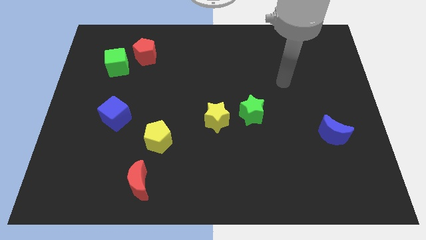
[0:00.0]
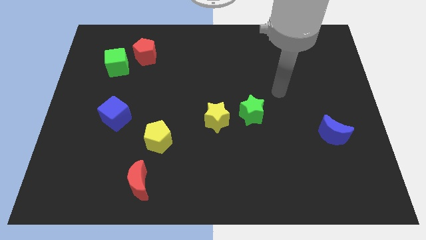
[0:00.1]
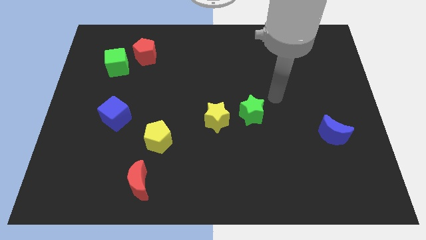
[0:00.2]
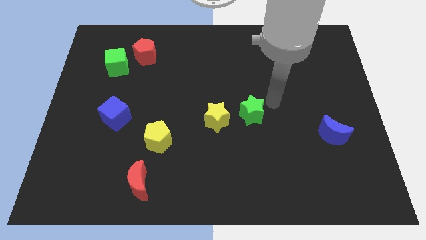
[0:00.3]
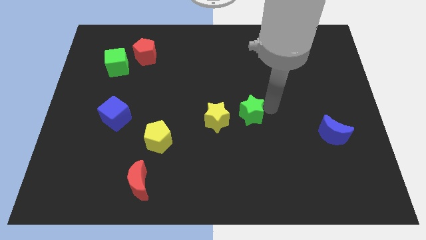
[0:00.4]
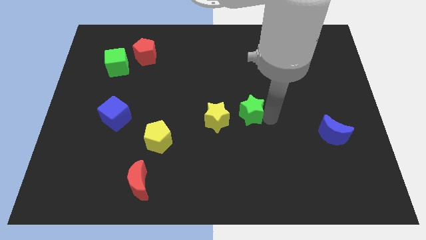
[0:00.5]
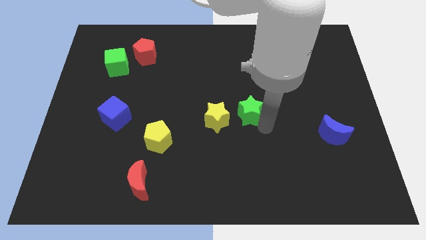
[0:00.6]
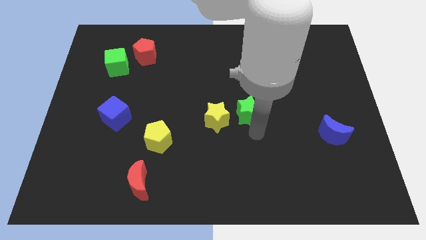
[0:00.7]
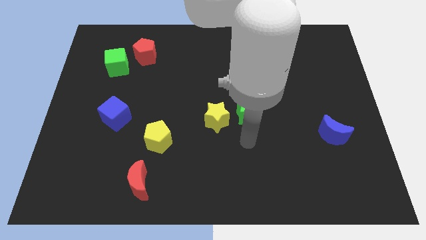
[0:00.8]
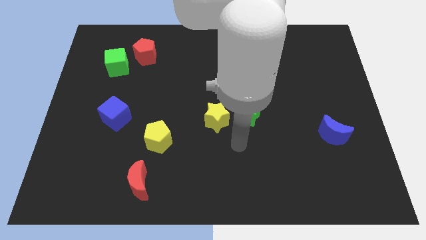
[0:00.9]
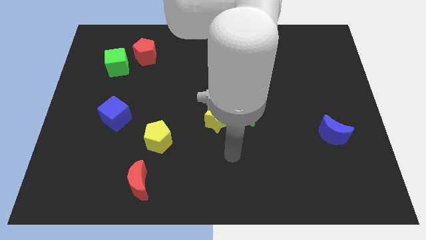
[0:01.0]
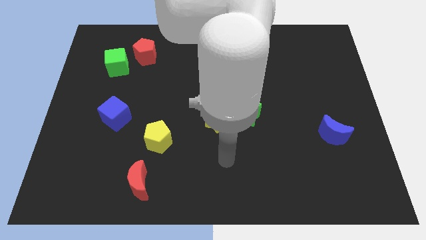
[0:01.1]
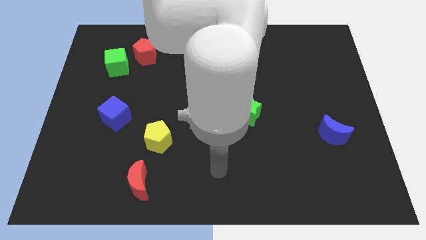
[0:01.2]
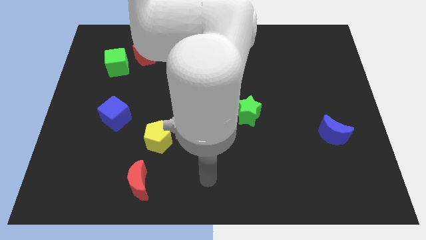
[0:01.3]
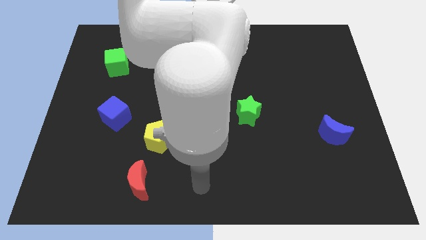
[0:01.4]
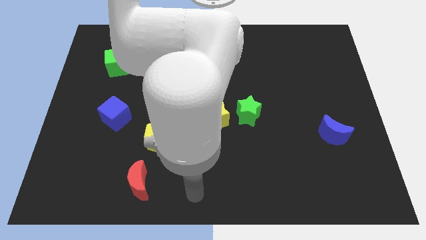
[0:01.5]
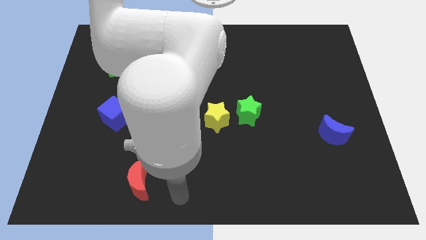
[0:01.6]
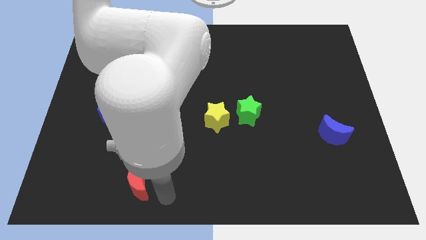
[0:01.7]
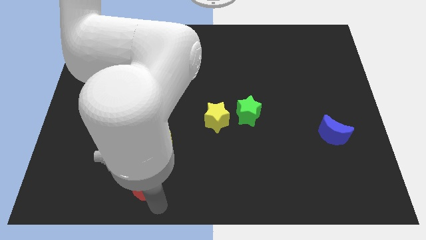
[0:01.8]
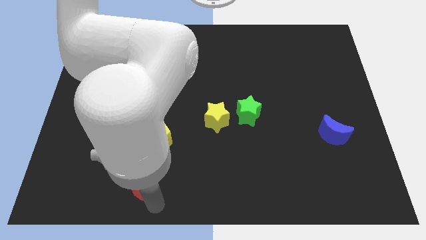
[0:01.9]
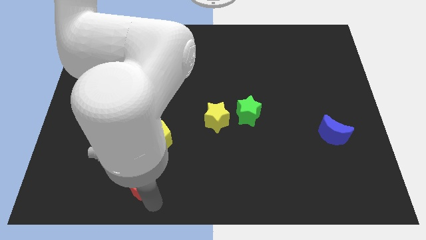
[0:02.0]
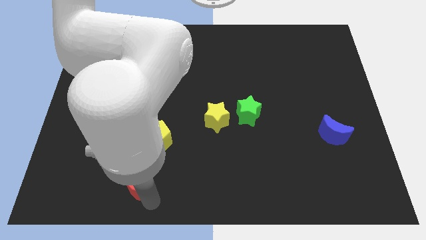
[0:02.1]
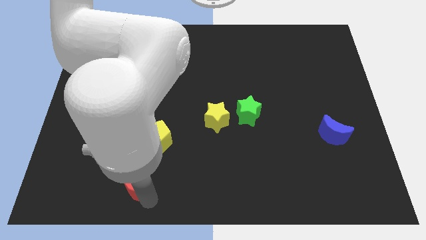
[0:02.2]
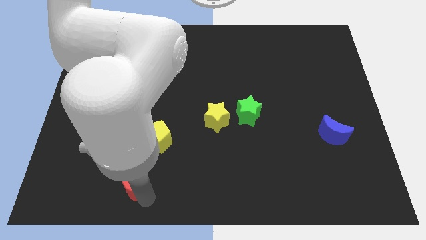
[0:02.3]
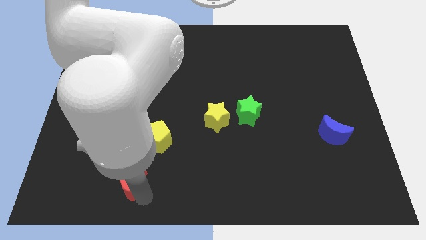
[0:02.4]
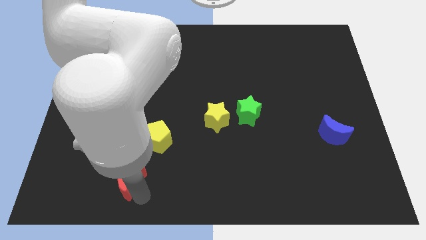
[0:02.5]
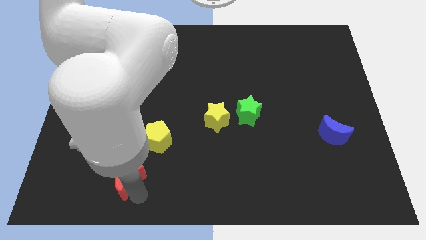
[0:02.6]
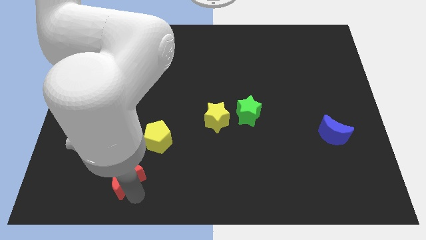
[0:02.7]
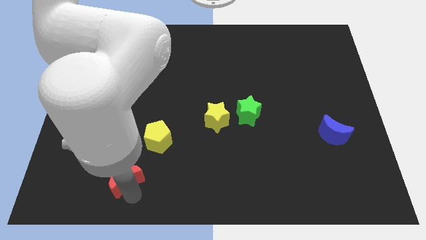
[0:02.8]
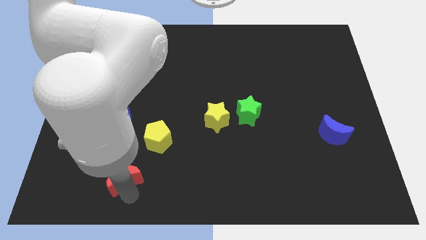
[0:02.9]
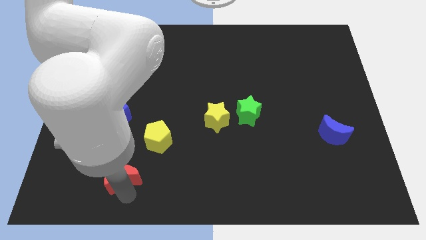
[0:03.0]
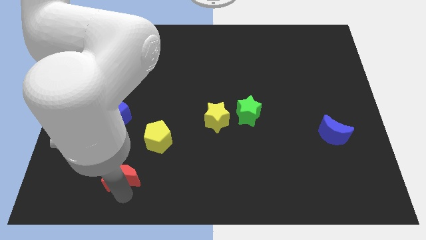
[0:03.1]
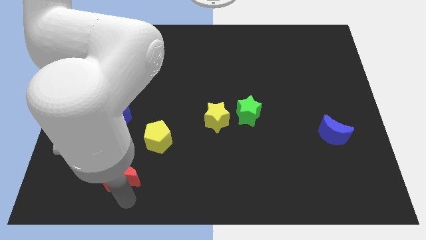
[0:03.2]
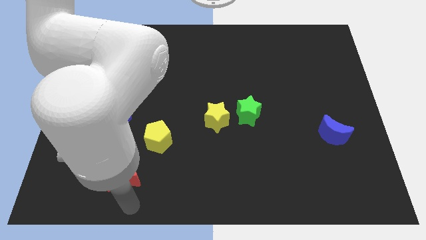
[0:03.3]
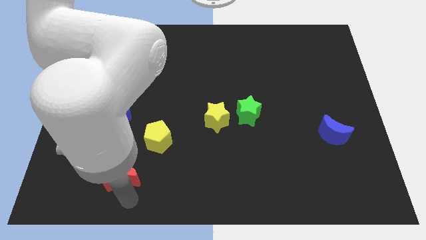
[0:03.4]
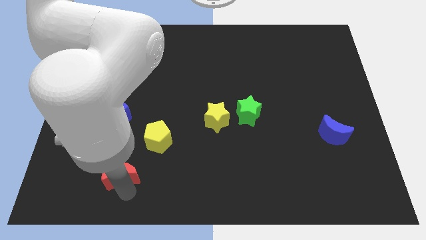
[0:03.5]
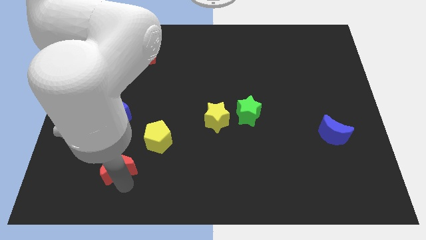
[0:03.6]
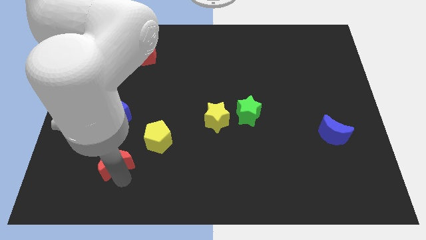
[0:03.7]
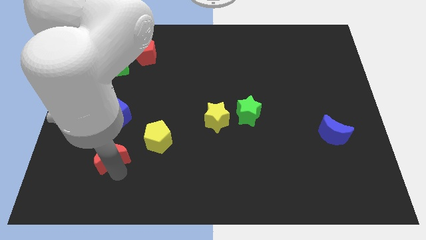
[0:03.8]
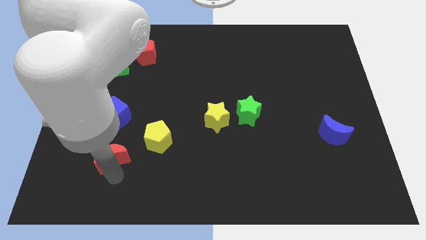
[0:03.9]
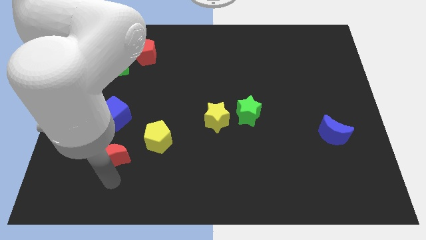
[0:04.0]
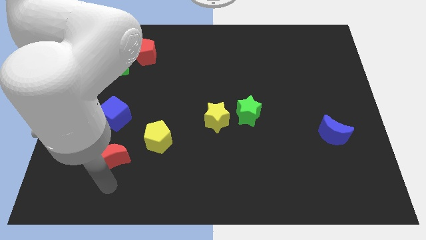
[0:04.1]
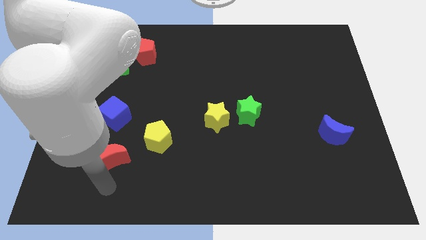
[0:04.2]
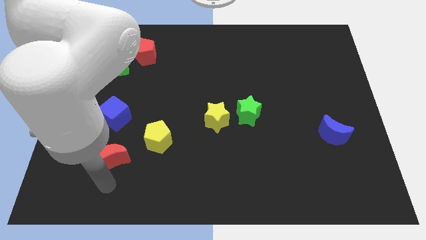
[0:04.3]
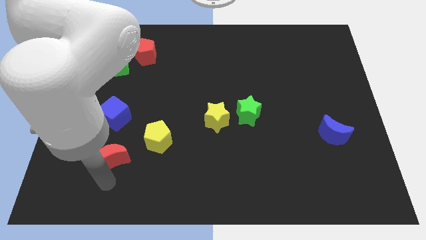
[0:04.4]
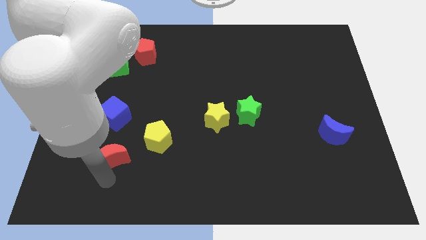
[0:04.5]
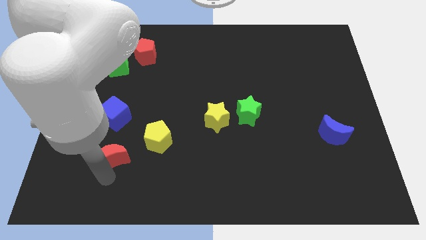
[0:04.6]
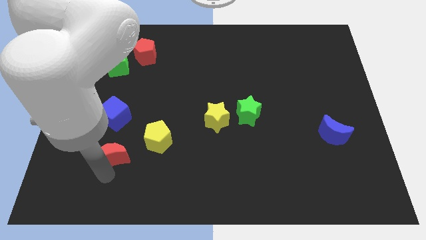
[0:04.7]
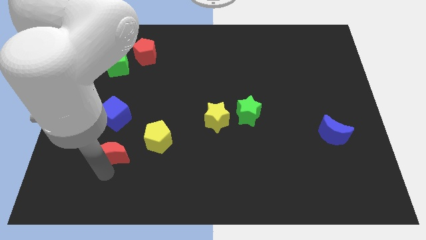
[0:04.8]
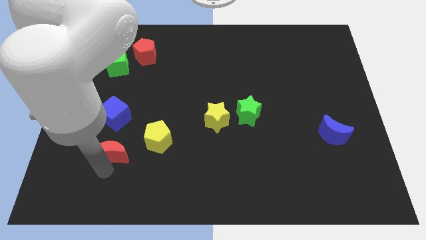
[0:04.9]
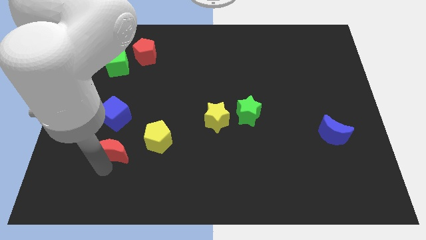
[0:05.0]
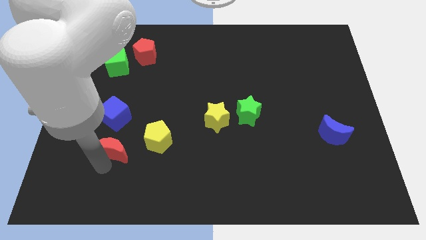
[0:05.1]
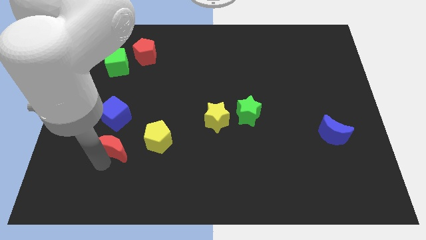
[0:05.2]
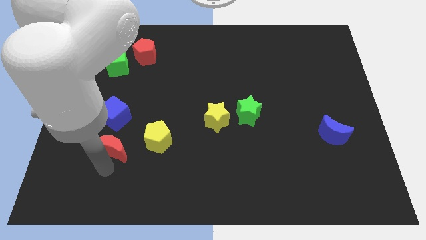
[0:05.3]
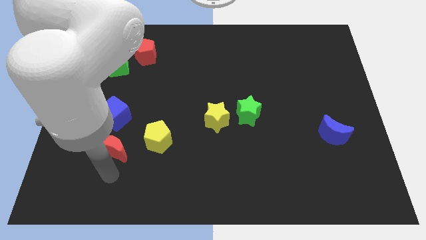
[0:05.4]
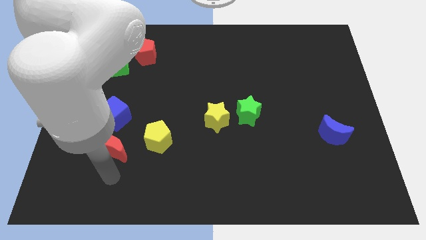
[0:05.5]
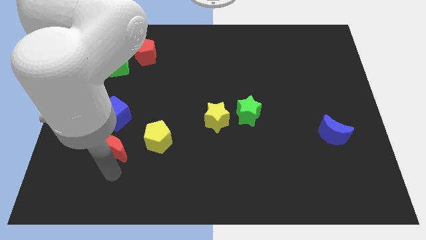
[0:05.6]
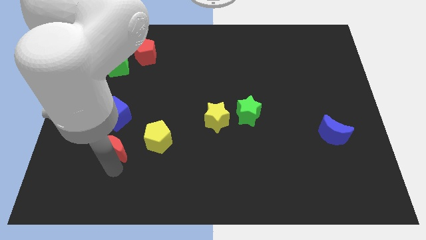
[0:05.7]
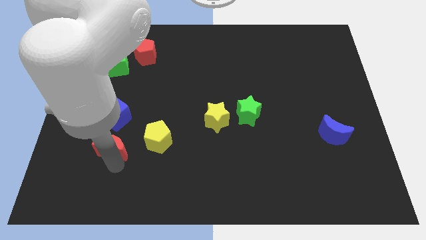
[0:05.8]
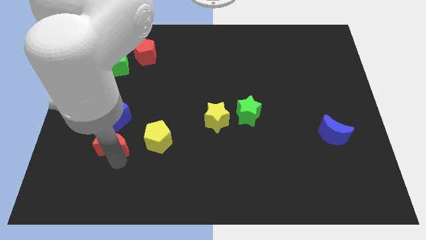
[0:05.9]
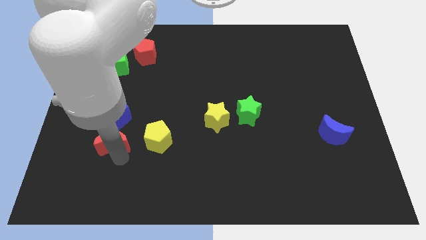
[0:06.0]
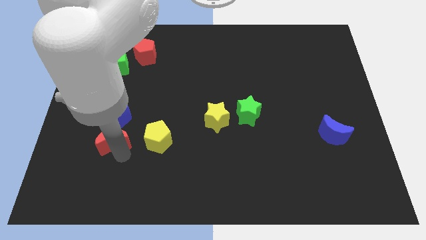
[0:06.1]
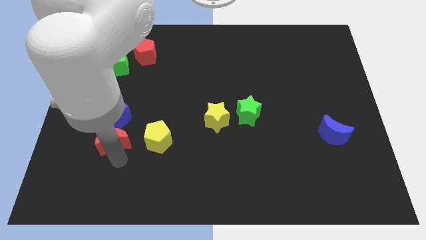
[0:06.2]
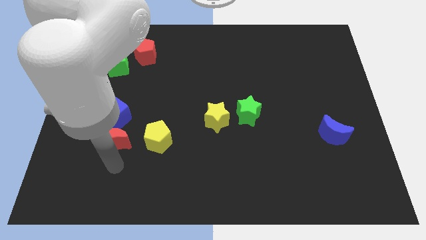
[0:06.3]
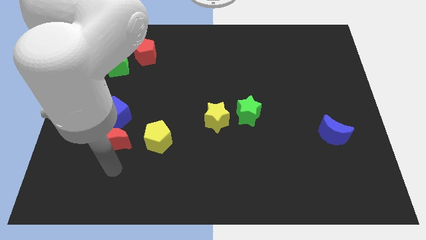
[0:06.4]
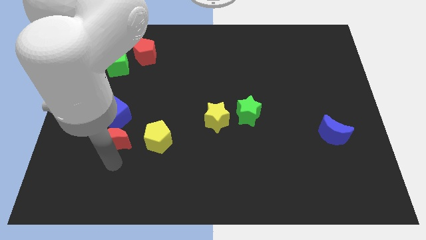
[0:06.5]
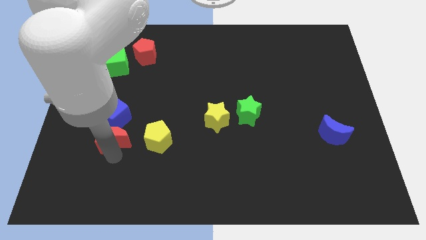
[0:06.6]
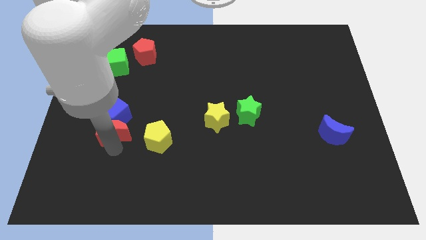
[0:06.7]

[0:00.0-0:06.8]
slide the red moon towards the blue cube

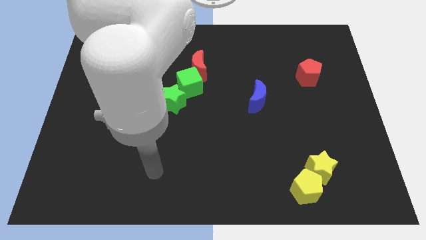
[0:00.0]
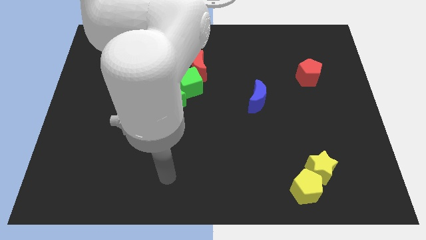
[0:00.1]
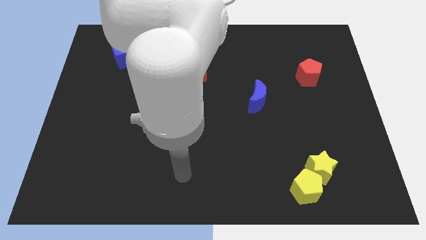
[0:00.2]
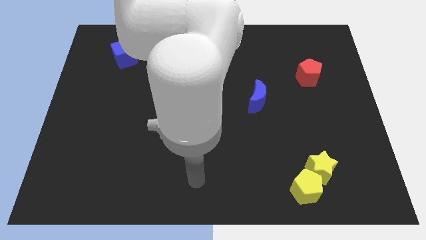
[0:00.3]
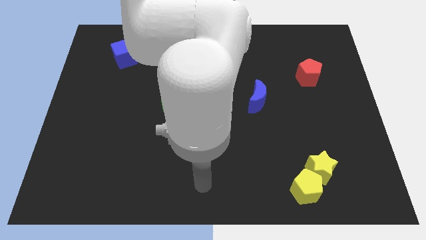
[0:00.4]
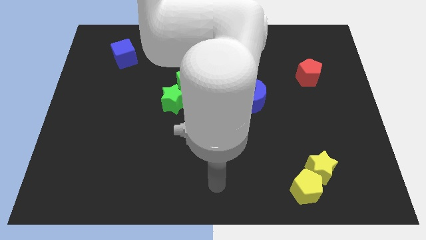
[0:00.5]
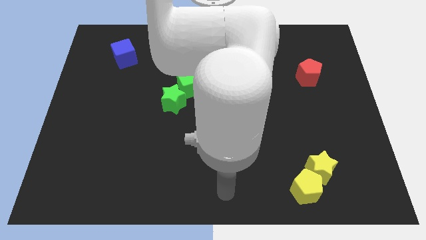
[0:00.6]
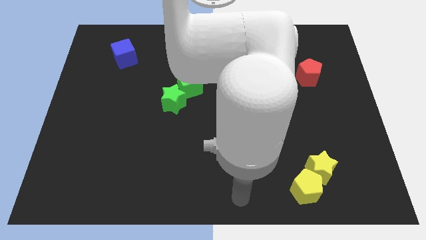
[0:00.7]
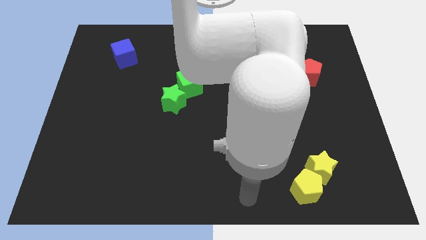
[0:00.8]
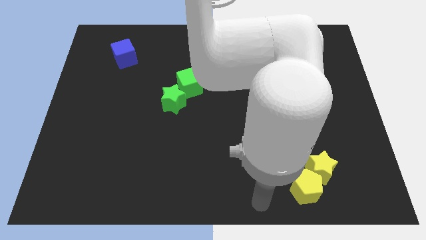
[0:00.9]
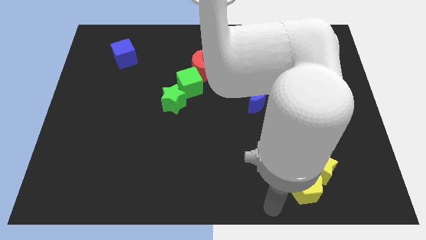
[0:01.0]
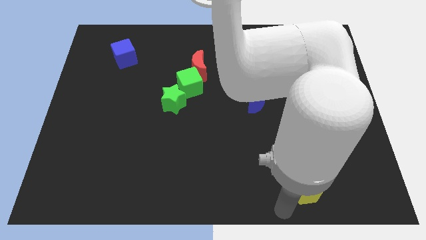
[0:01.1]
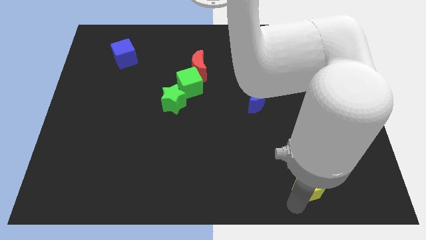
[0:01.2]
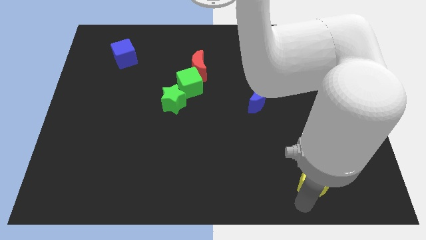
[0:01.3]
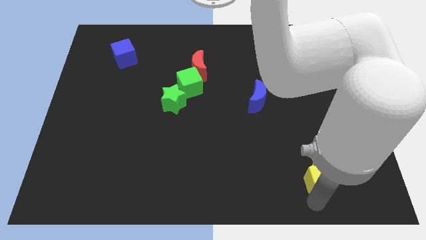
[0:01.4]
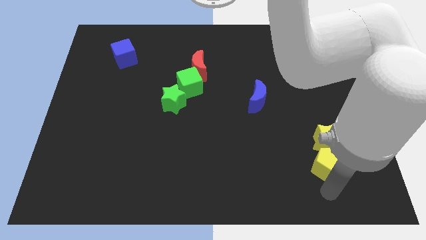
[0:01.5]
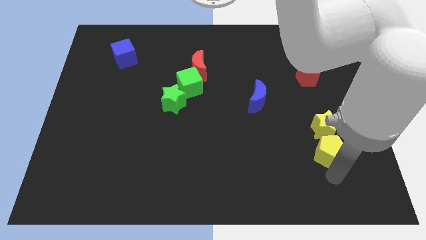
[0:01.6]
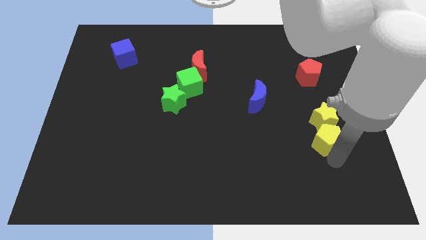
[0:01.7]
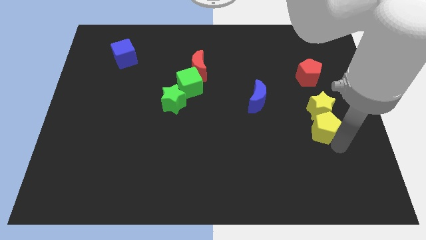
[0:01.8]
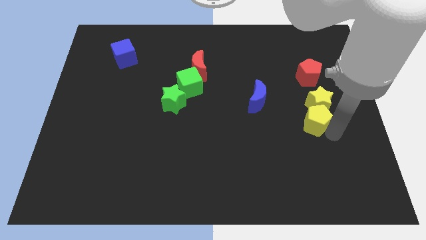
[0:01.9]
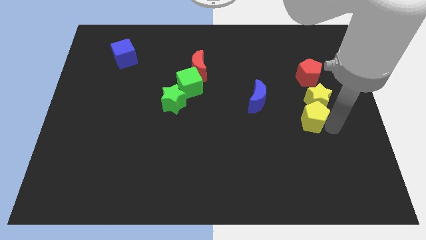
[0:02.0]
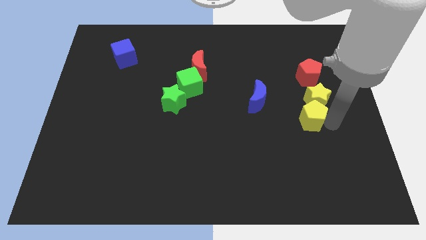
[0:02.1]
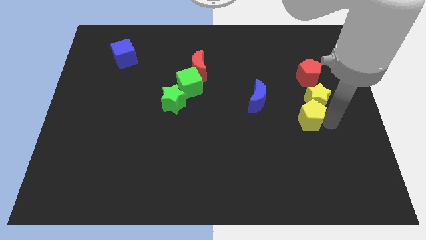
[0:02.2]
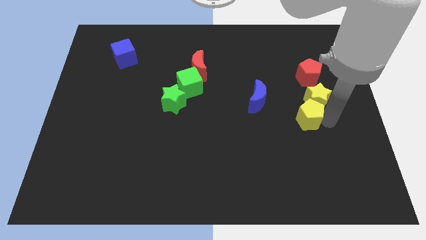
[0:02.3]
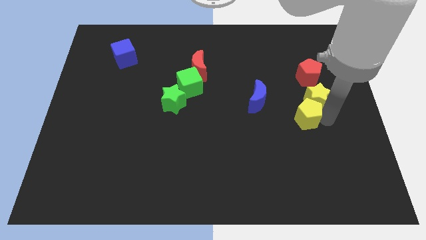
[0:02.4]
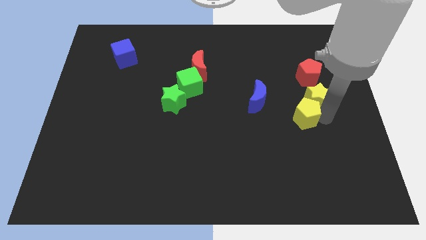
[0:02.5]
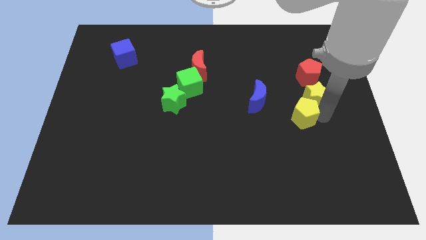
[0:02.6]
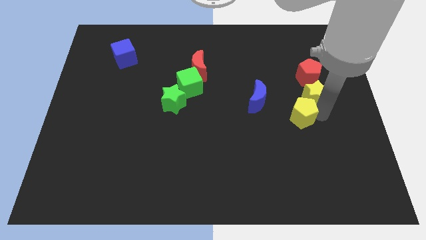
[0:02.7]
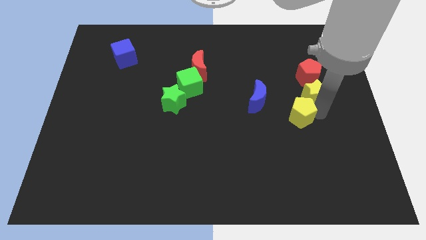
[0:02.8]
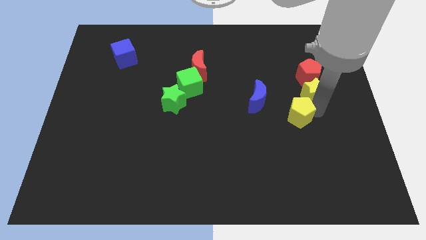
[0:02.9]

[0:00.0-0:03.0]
push the yellow star to the red pentagon
